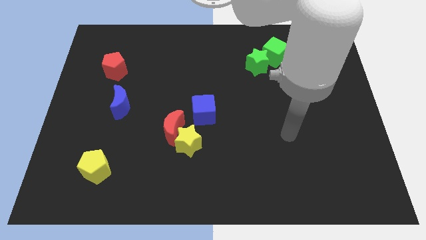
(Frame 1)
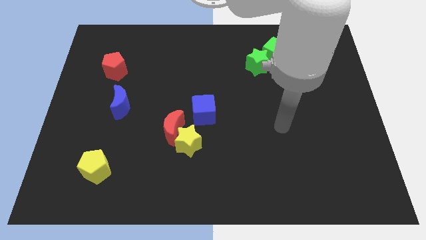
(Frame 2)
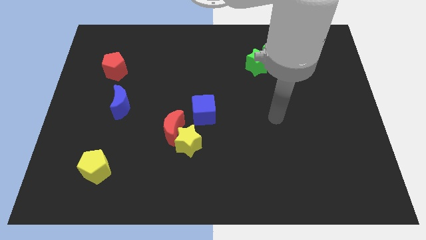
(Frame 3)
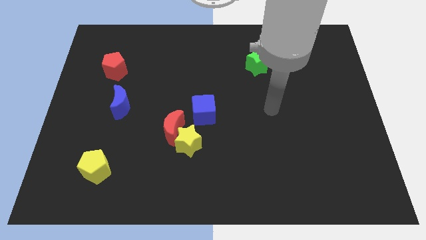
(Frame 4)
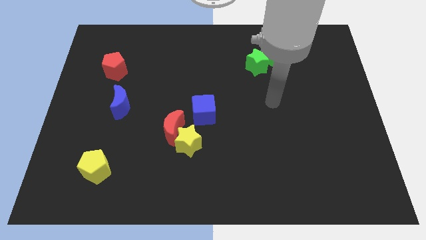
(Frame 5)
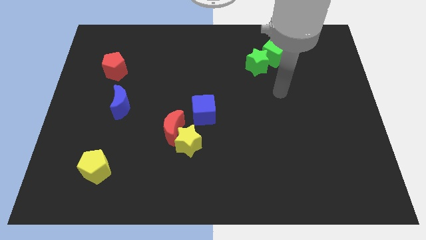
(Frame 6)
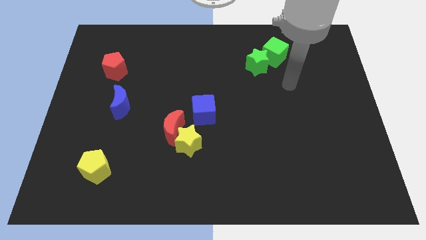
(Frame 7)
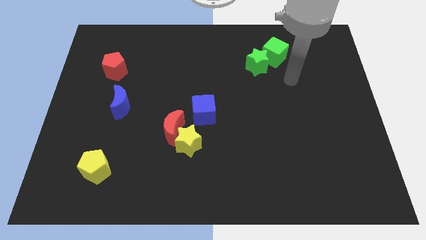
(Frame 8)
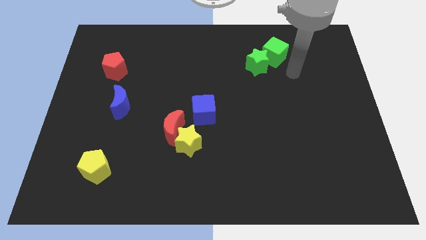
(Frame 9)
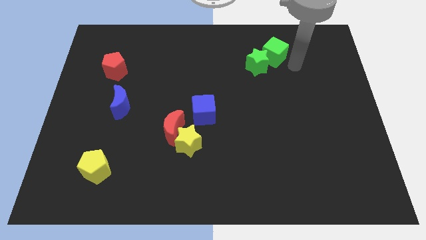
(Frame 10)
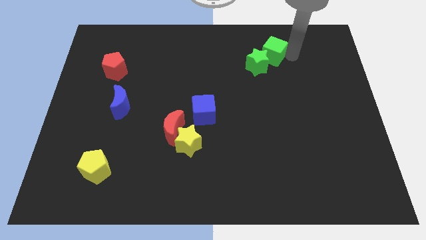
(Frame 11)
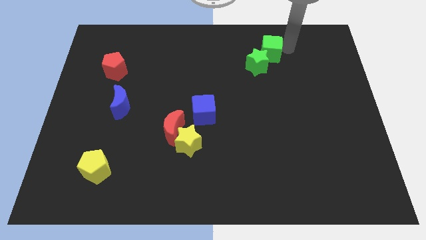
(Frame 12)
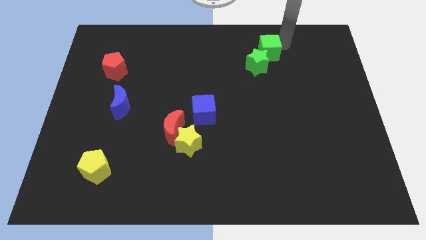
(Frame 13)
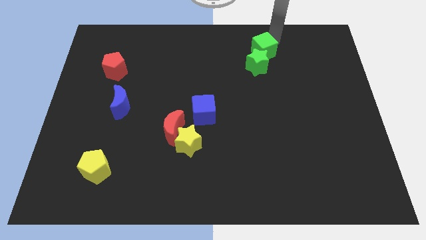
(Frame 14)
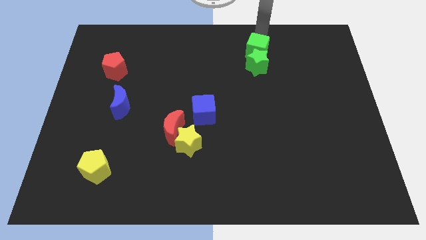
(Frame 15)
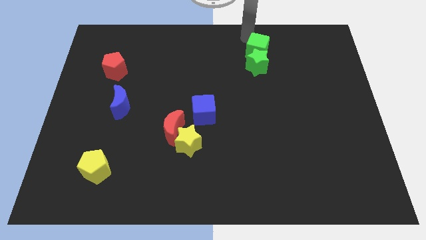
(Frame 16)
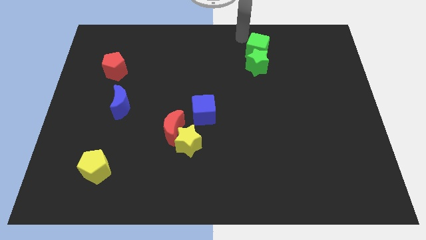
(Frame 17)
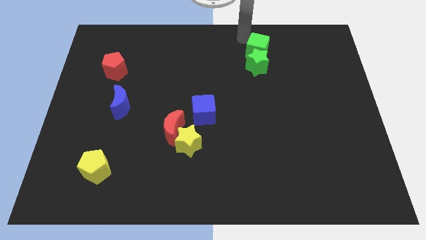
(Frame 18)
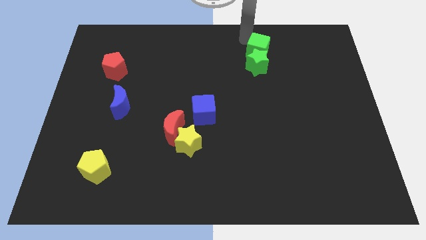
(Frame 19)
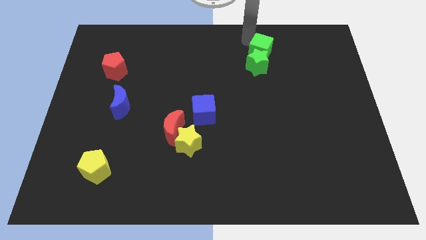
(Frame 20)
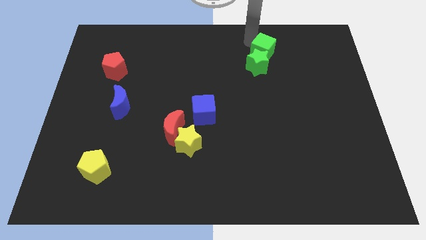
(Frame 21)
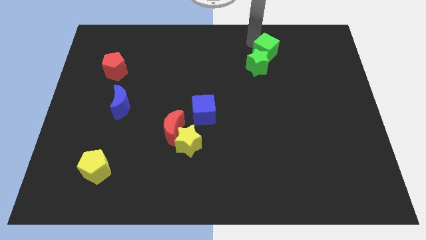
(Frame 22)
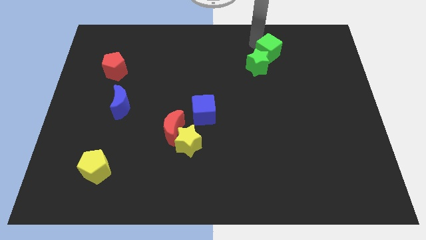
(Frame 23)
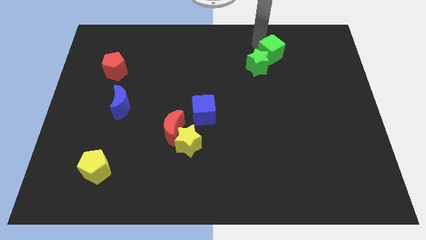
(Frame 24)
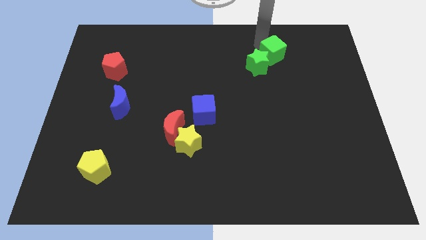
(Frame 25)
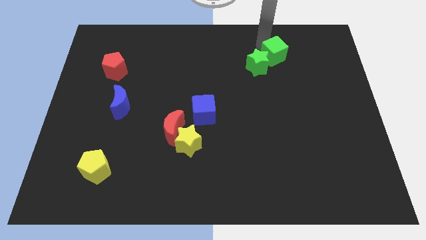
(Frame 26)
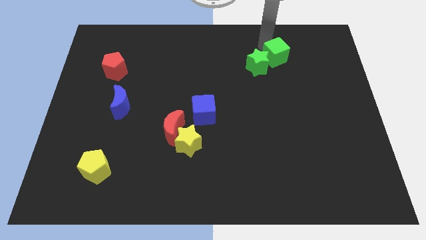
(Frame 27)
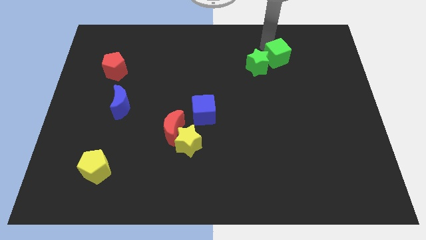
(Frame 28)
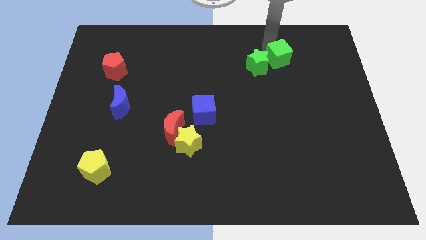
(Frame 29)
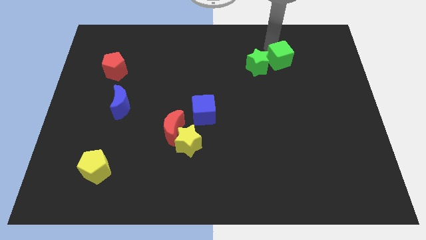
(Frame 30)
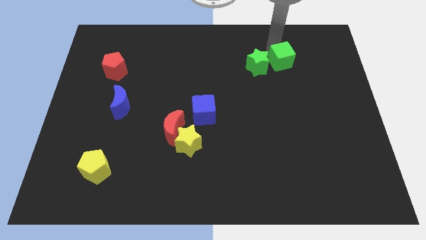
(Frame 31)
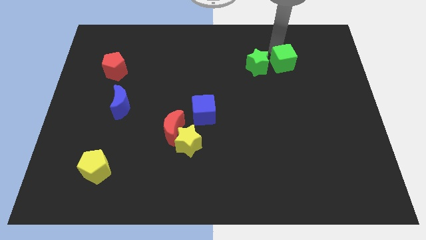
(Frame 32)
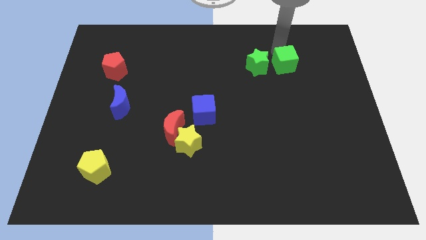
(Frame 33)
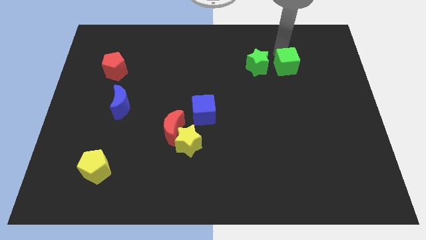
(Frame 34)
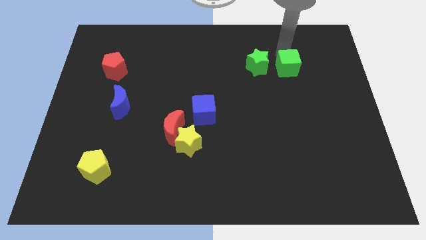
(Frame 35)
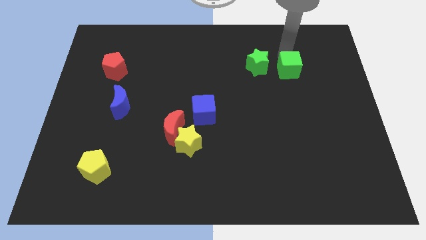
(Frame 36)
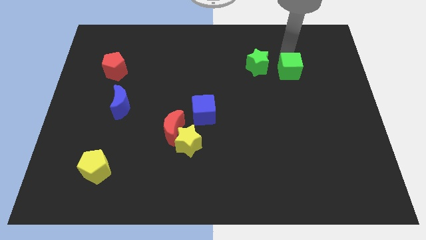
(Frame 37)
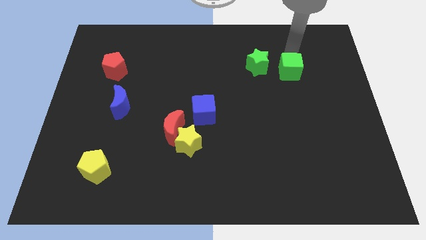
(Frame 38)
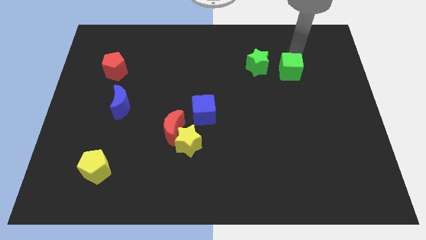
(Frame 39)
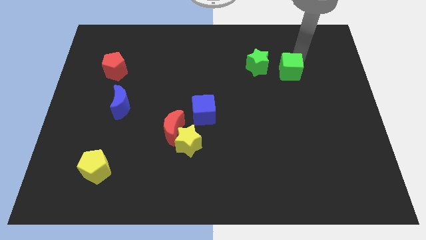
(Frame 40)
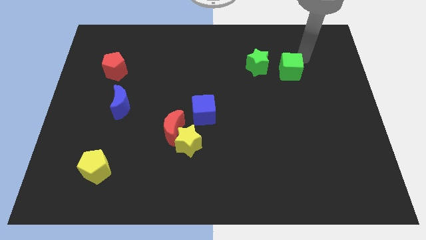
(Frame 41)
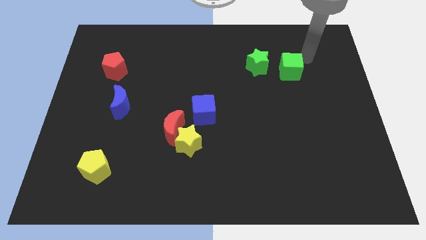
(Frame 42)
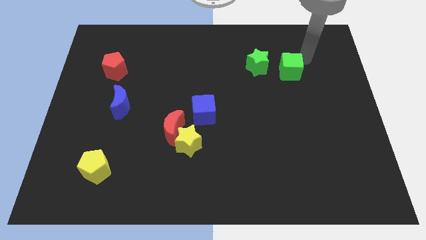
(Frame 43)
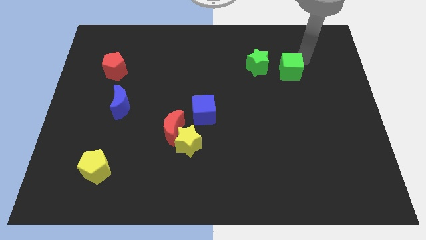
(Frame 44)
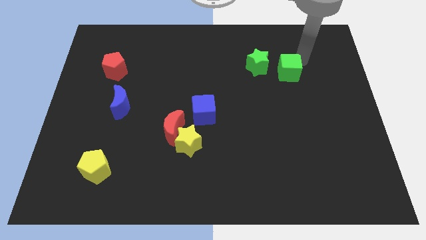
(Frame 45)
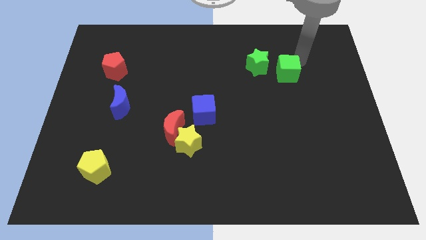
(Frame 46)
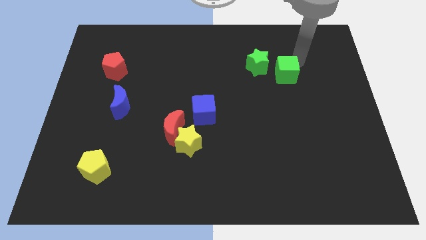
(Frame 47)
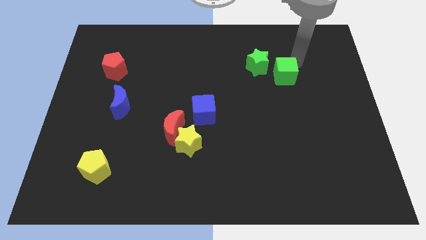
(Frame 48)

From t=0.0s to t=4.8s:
slide the green cube a little bit down

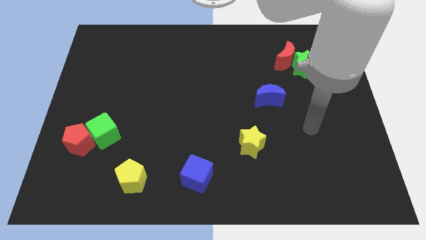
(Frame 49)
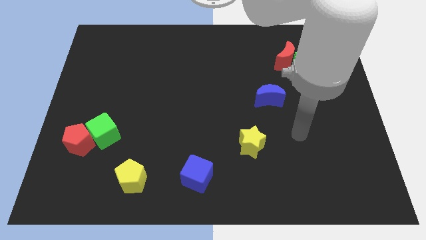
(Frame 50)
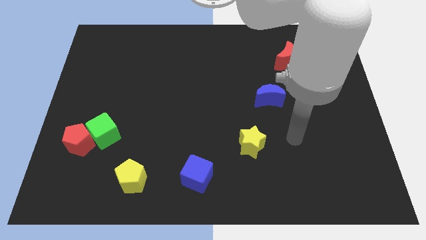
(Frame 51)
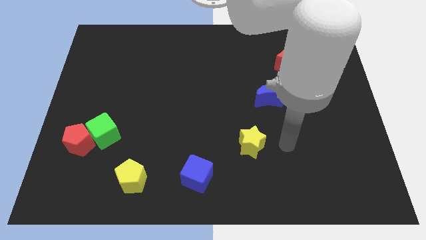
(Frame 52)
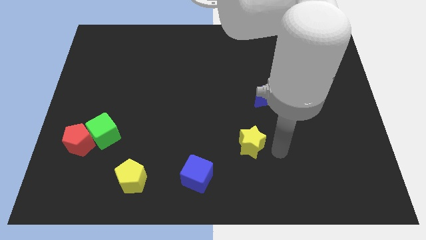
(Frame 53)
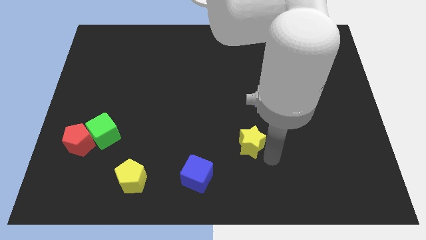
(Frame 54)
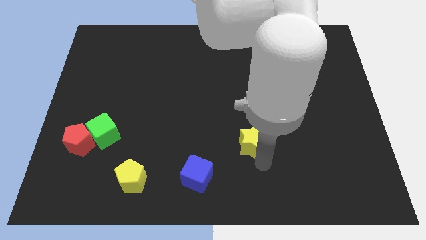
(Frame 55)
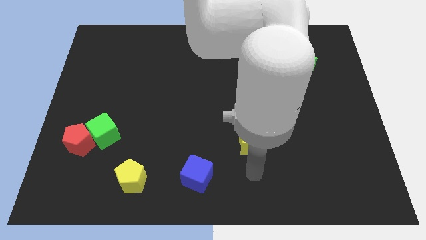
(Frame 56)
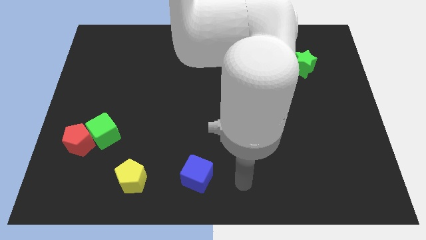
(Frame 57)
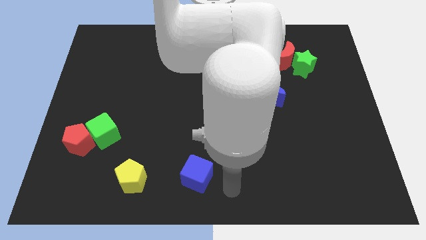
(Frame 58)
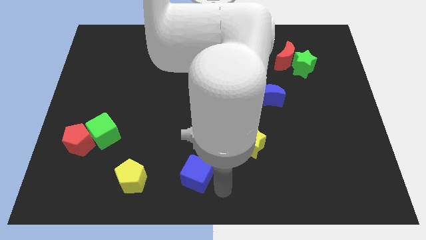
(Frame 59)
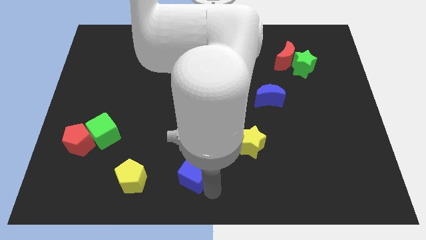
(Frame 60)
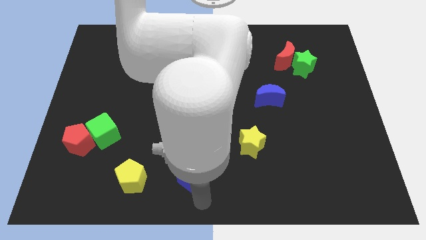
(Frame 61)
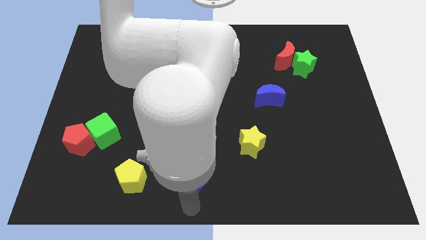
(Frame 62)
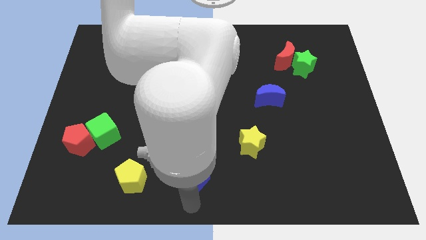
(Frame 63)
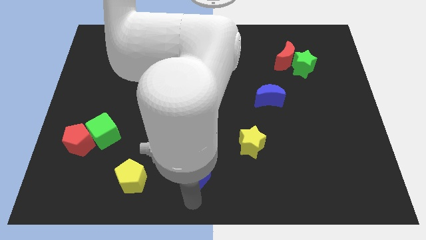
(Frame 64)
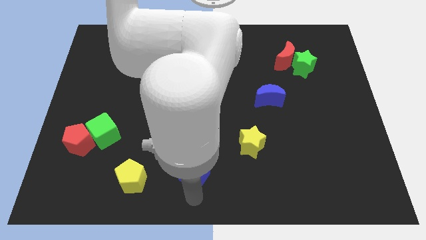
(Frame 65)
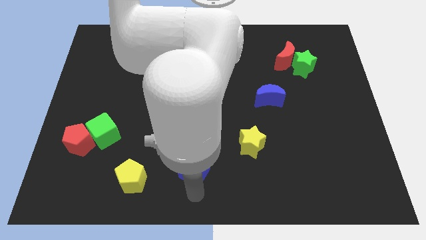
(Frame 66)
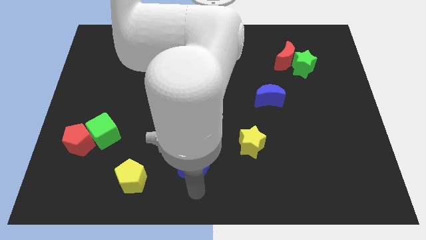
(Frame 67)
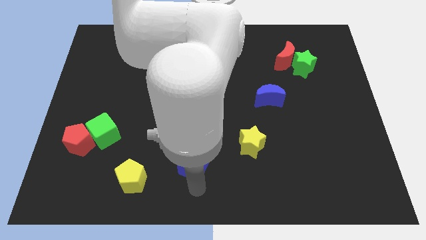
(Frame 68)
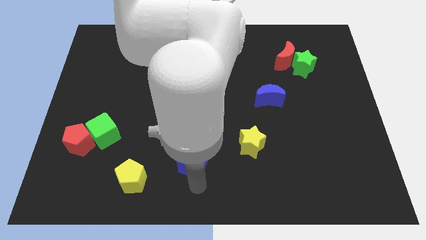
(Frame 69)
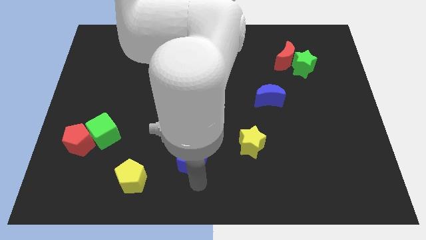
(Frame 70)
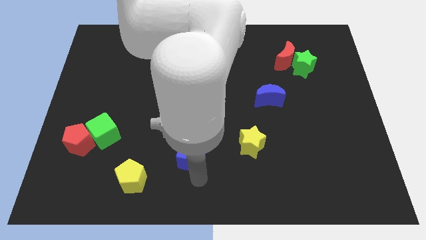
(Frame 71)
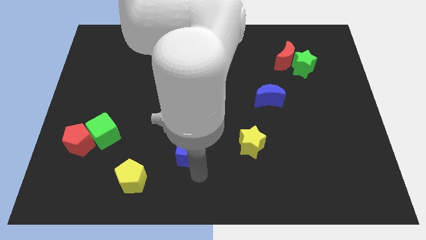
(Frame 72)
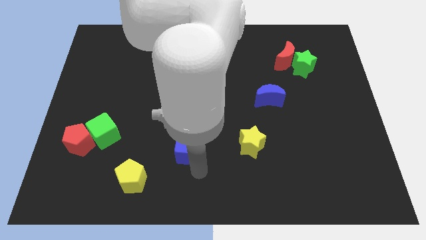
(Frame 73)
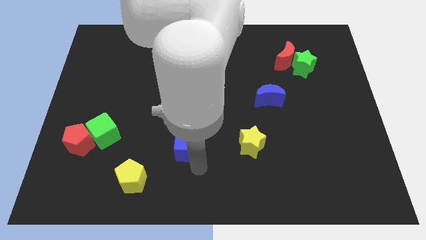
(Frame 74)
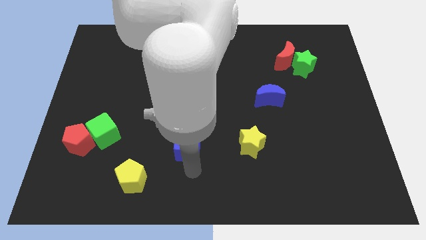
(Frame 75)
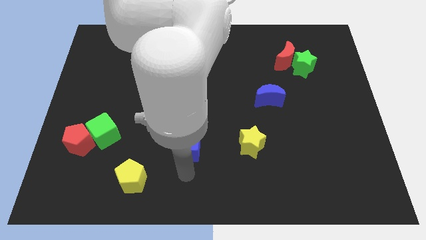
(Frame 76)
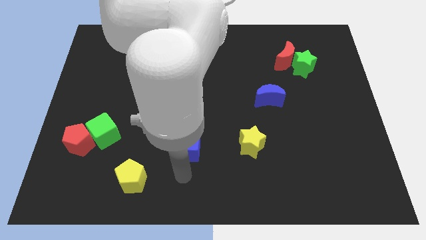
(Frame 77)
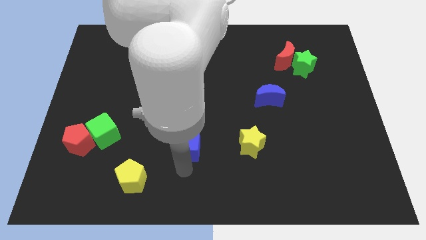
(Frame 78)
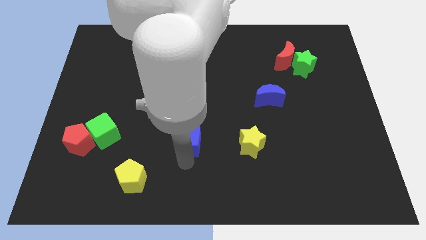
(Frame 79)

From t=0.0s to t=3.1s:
slide the blue cube upwards a little

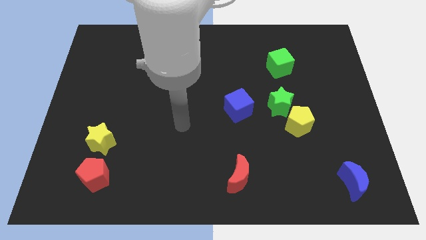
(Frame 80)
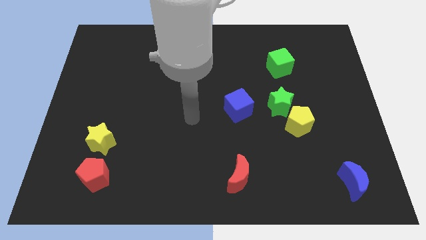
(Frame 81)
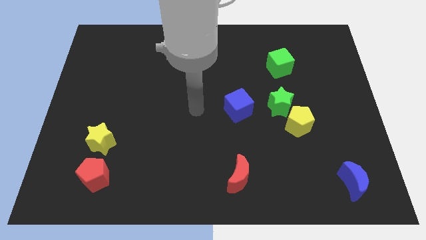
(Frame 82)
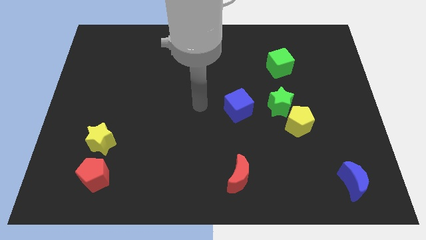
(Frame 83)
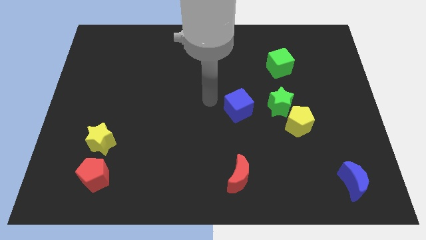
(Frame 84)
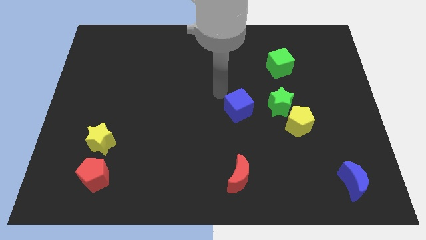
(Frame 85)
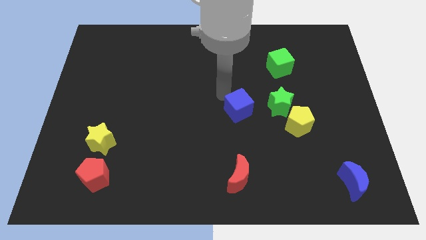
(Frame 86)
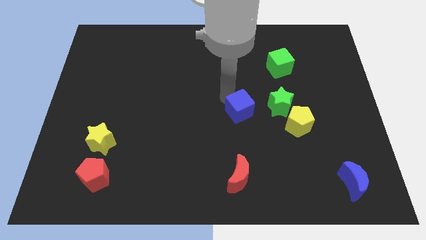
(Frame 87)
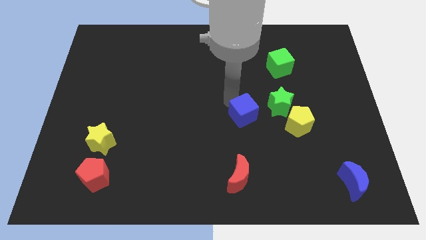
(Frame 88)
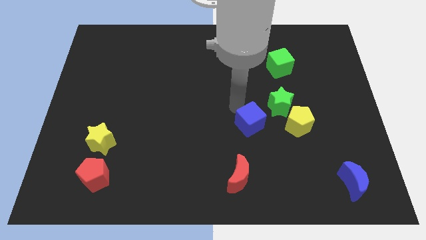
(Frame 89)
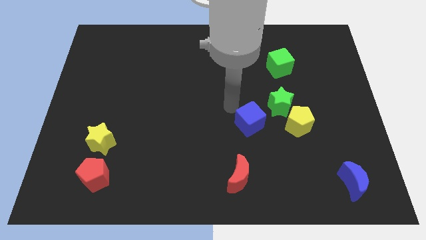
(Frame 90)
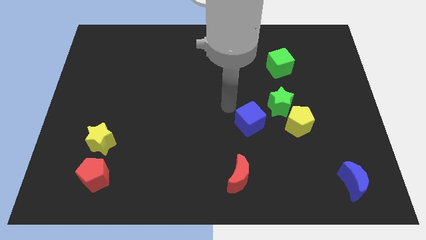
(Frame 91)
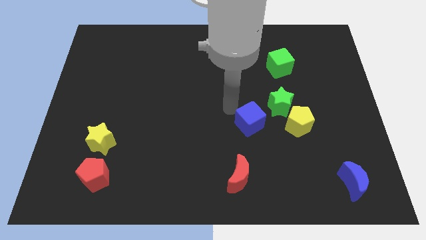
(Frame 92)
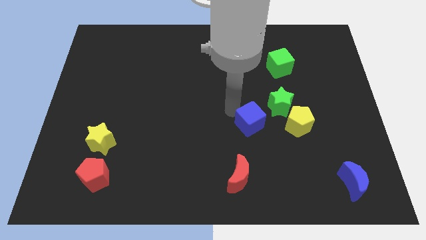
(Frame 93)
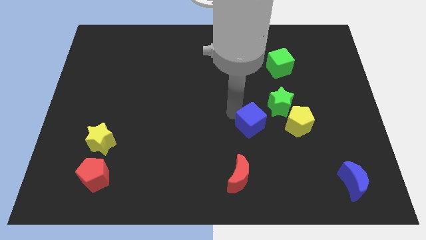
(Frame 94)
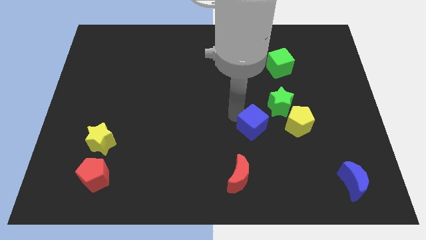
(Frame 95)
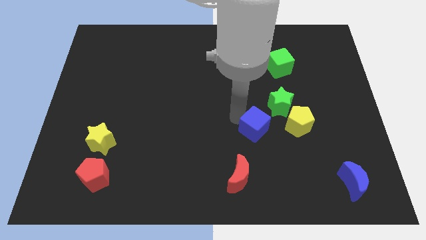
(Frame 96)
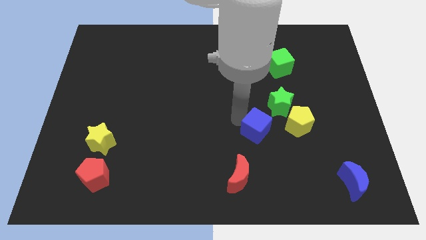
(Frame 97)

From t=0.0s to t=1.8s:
move the blue cube downwards and then to the right somewhat
